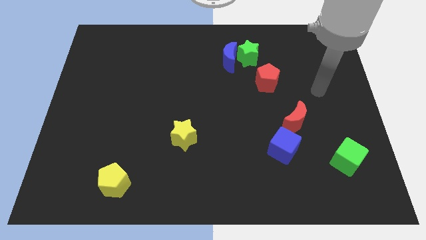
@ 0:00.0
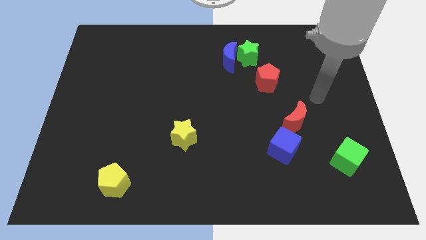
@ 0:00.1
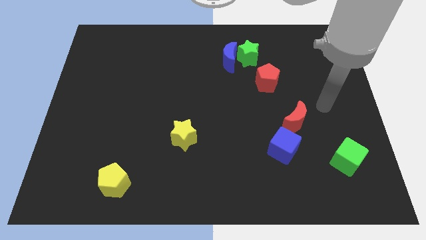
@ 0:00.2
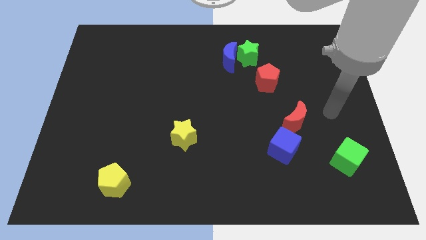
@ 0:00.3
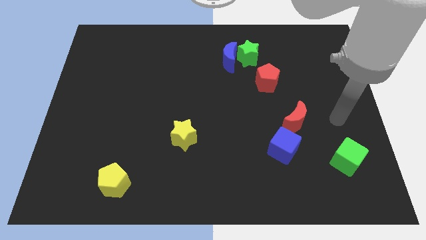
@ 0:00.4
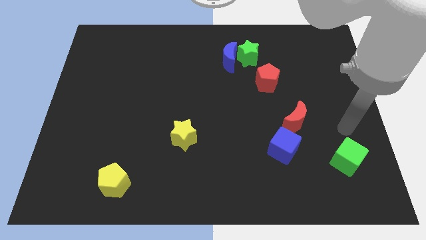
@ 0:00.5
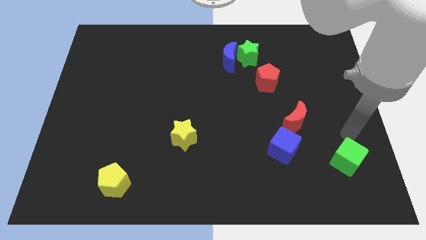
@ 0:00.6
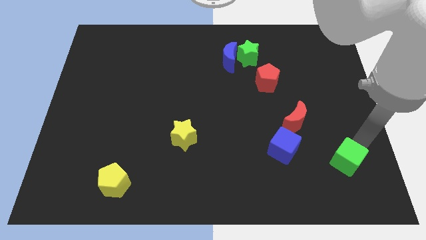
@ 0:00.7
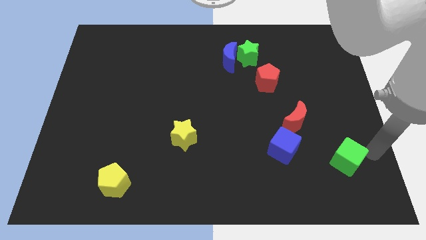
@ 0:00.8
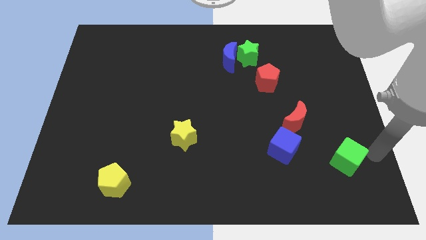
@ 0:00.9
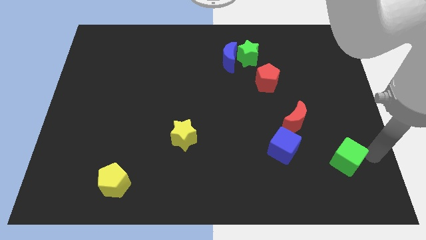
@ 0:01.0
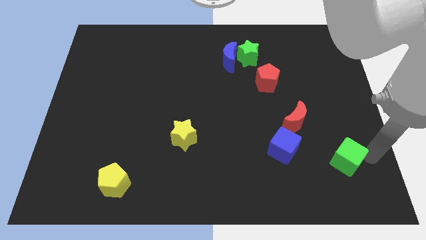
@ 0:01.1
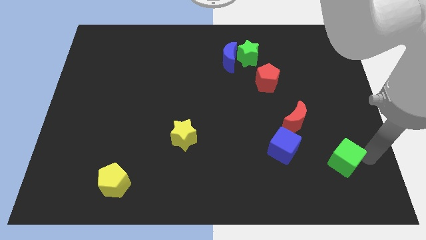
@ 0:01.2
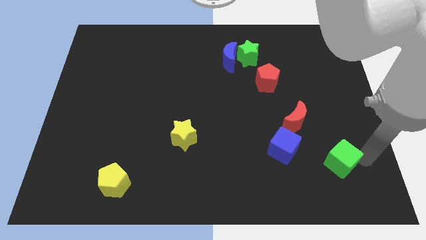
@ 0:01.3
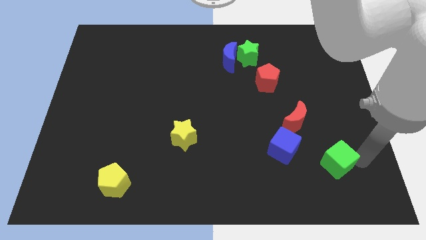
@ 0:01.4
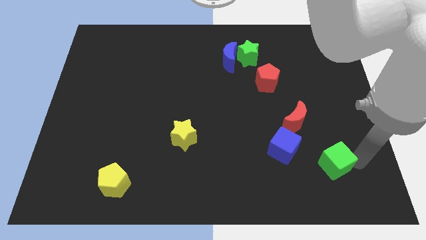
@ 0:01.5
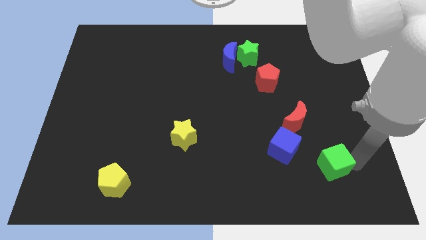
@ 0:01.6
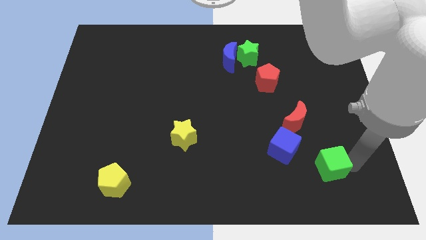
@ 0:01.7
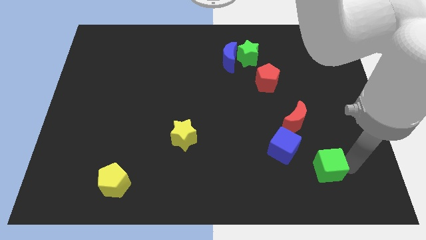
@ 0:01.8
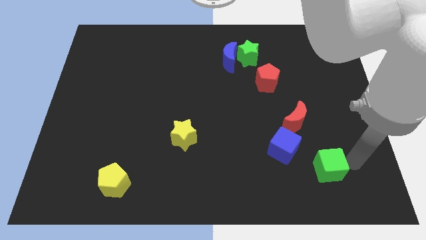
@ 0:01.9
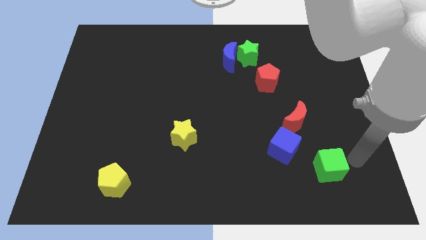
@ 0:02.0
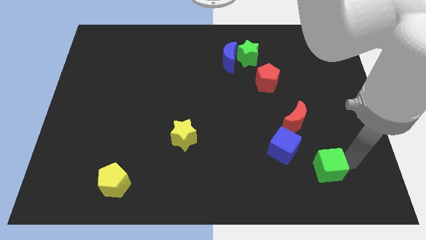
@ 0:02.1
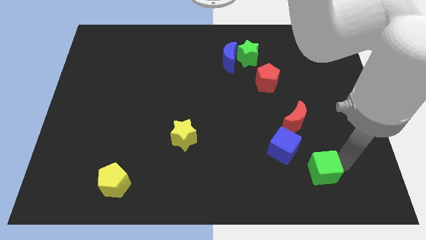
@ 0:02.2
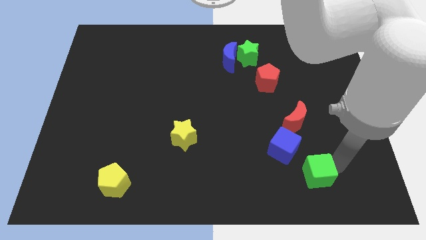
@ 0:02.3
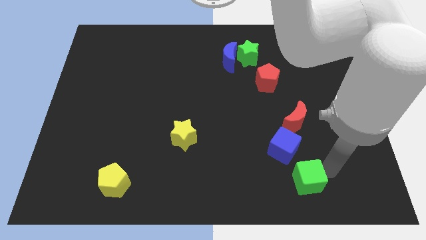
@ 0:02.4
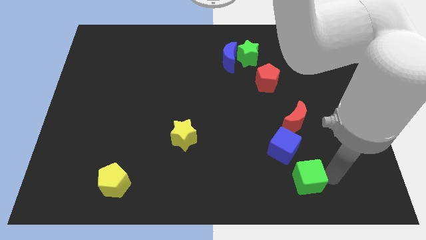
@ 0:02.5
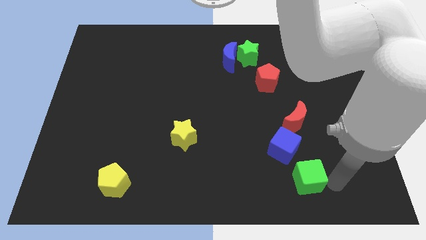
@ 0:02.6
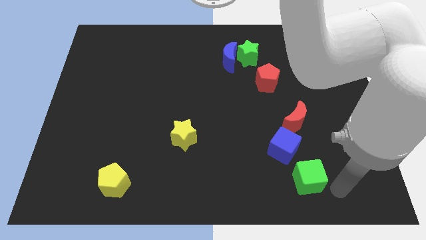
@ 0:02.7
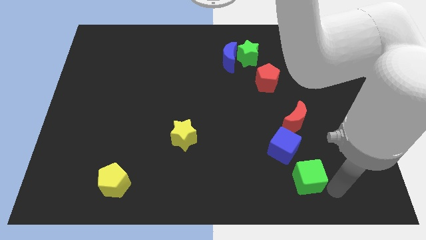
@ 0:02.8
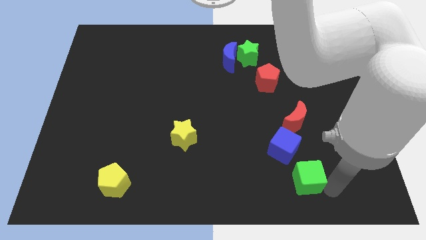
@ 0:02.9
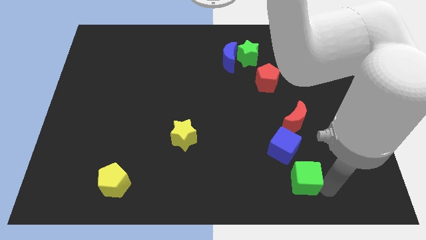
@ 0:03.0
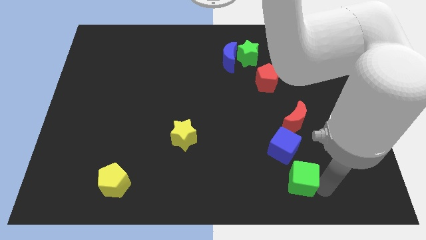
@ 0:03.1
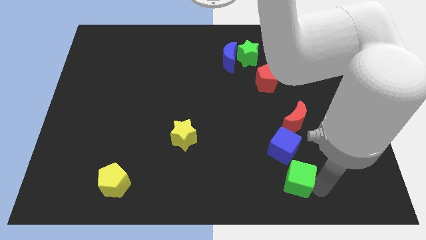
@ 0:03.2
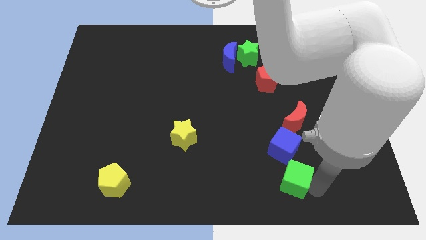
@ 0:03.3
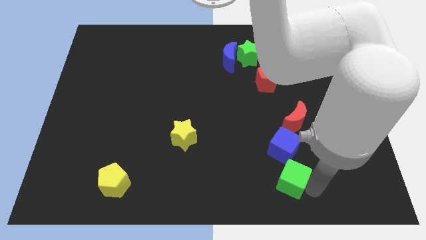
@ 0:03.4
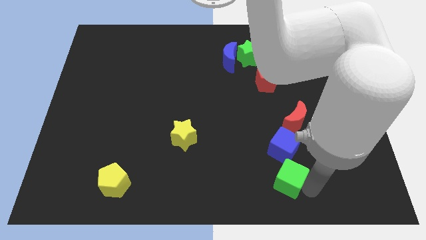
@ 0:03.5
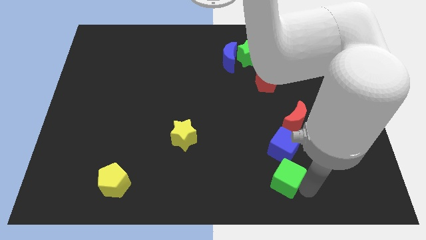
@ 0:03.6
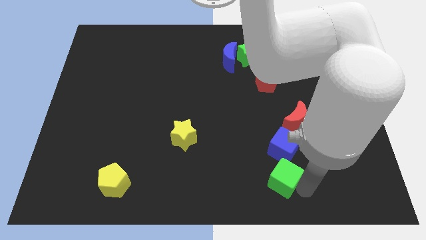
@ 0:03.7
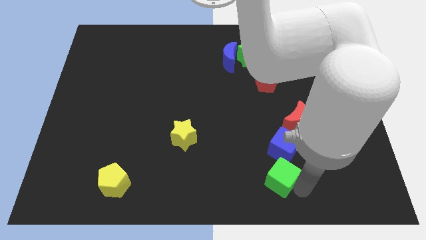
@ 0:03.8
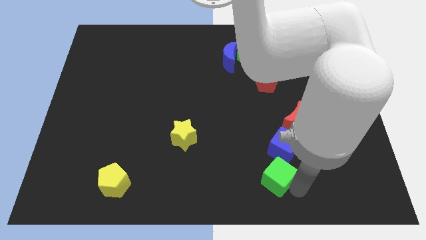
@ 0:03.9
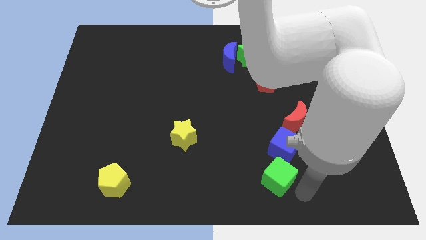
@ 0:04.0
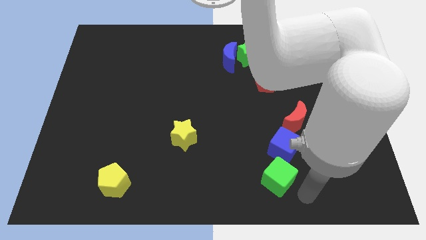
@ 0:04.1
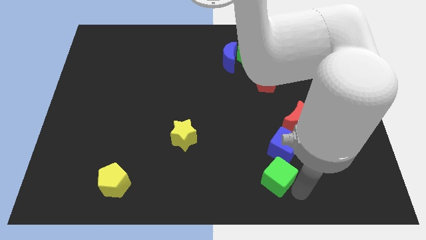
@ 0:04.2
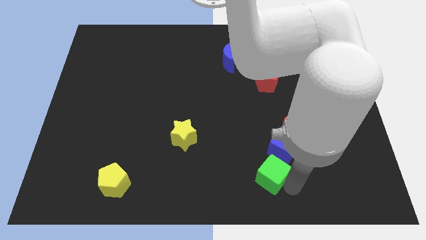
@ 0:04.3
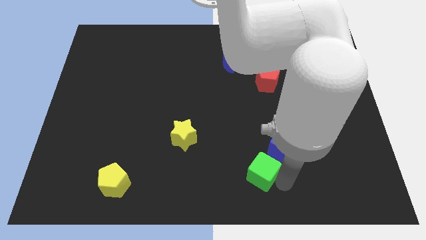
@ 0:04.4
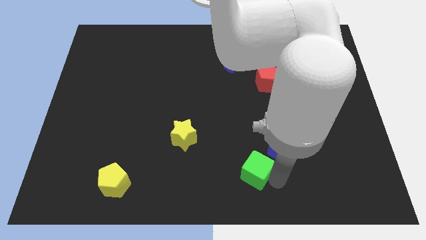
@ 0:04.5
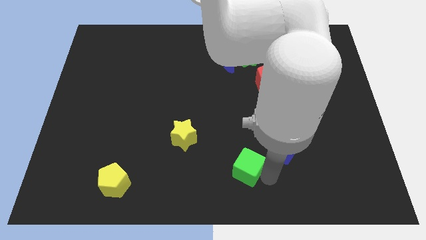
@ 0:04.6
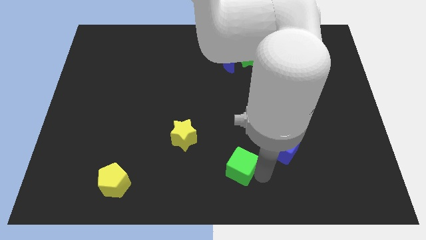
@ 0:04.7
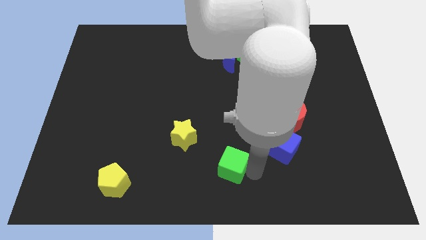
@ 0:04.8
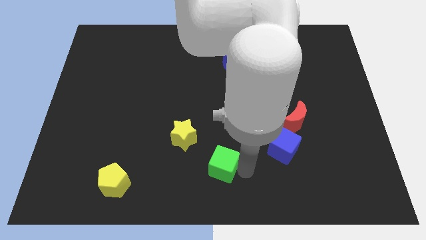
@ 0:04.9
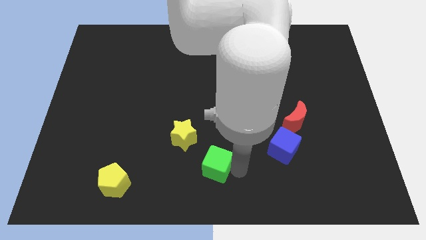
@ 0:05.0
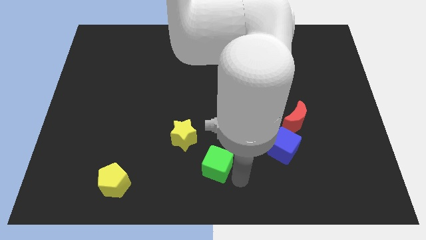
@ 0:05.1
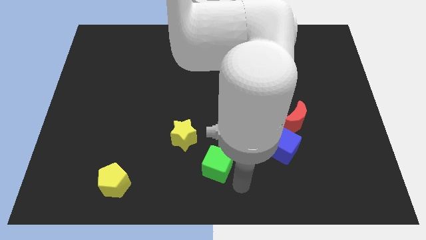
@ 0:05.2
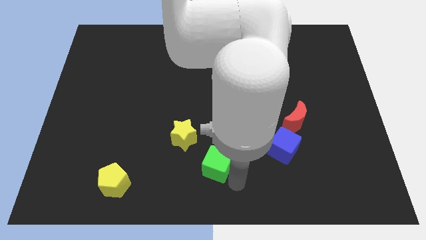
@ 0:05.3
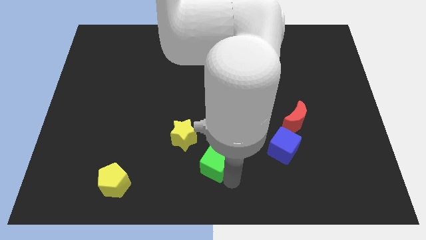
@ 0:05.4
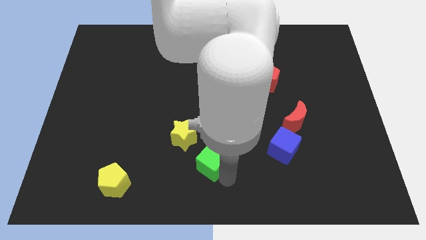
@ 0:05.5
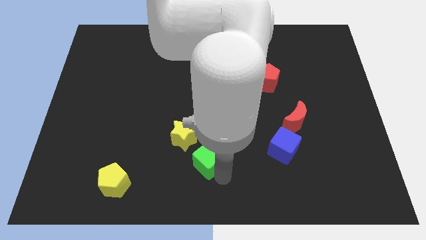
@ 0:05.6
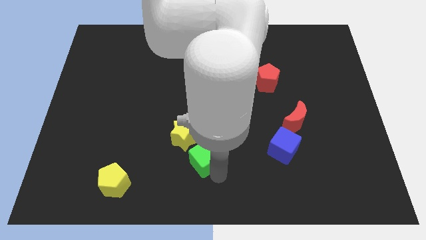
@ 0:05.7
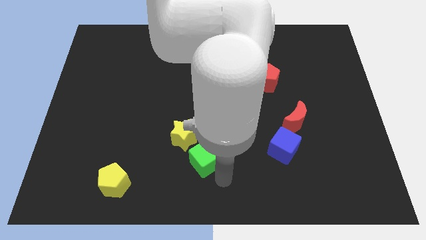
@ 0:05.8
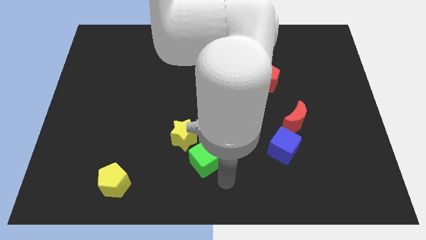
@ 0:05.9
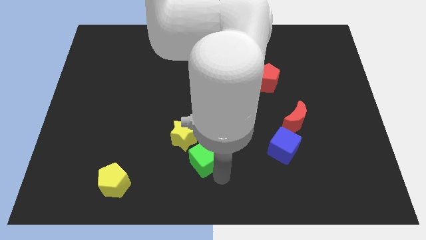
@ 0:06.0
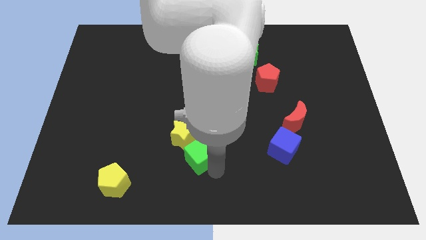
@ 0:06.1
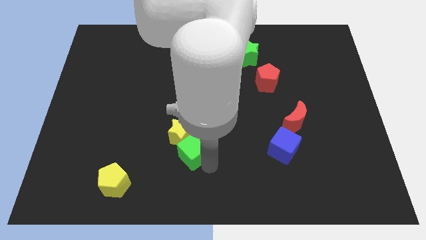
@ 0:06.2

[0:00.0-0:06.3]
push the green cube next to the yellow star
